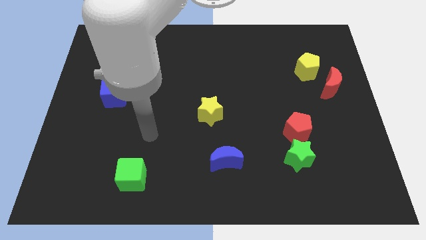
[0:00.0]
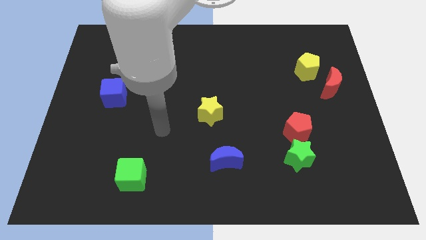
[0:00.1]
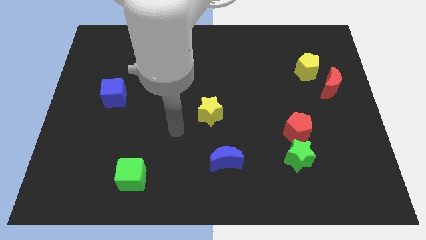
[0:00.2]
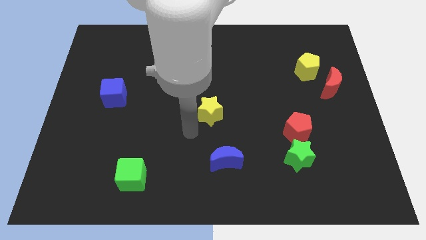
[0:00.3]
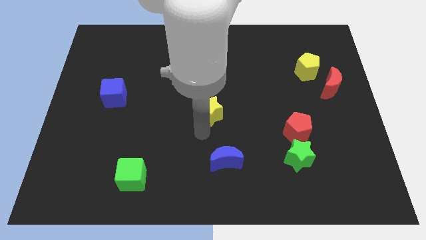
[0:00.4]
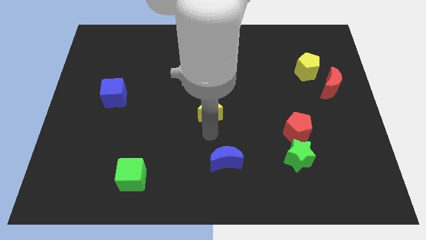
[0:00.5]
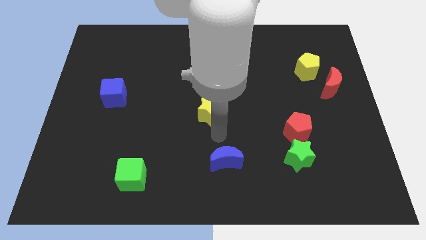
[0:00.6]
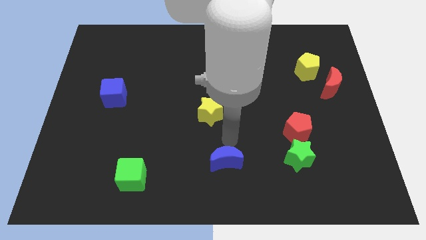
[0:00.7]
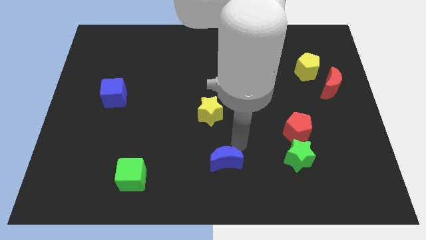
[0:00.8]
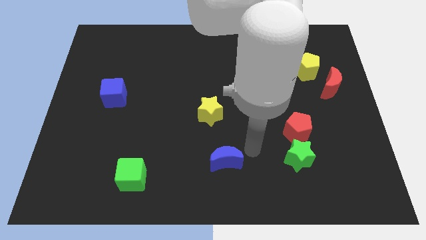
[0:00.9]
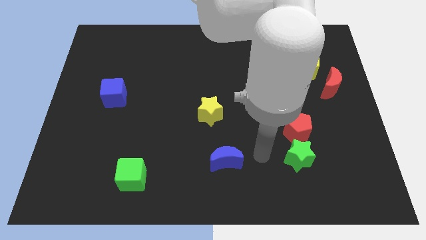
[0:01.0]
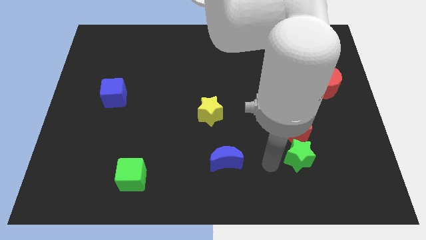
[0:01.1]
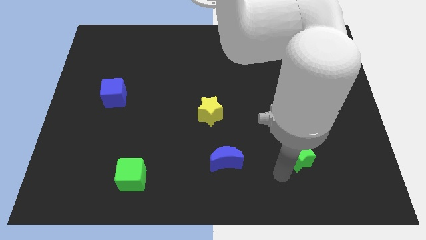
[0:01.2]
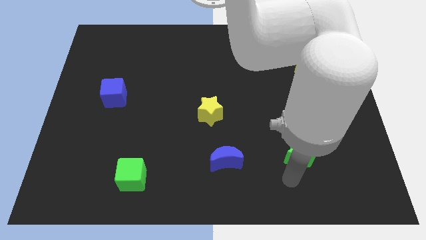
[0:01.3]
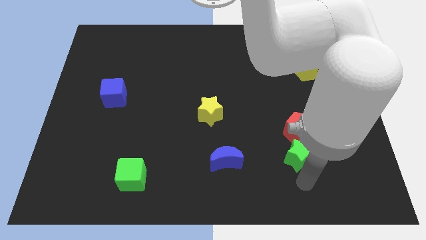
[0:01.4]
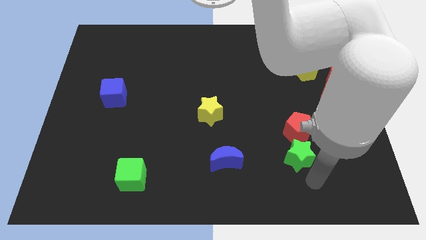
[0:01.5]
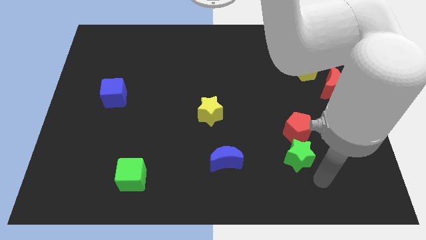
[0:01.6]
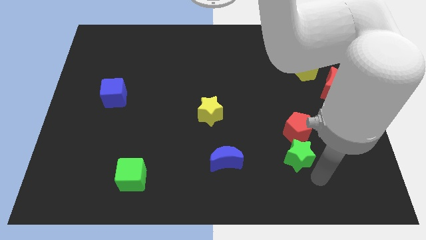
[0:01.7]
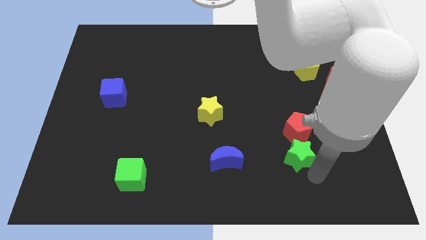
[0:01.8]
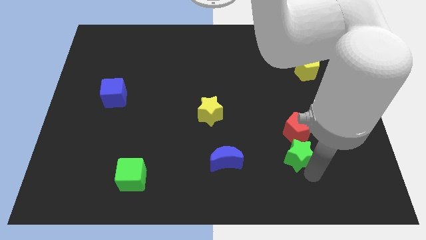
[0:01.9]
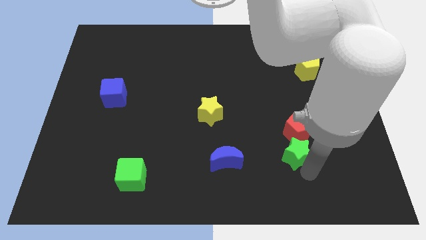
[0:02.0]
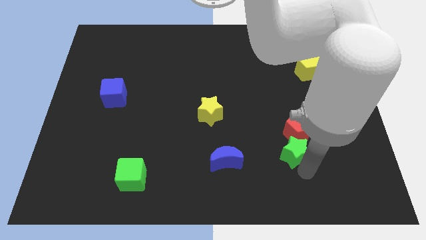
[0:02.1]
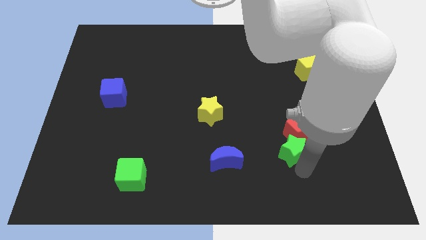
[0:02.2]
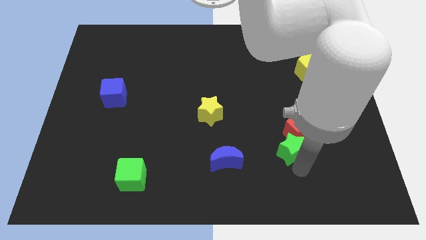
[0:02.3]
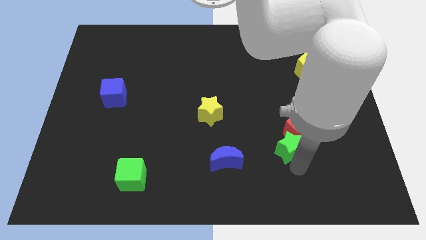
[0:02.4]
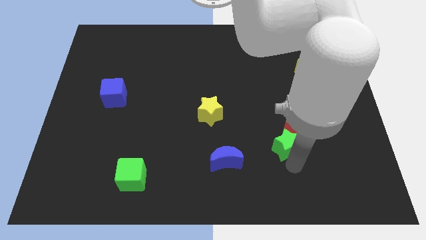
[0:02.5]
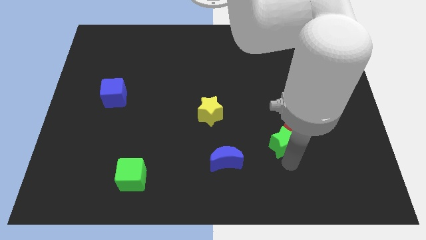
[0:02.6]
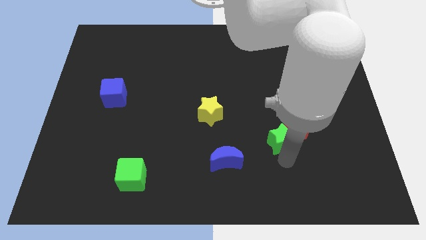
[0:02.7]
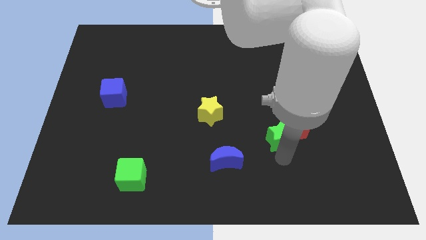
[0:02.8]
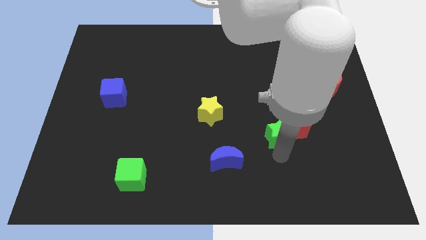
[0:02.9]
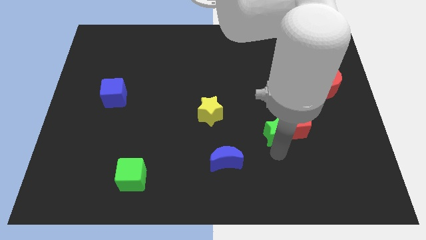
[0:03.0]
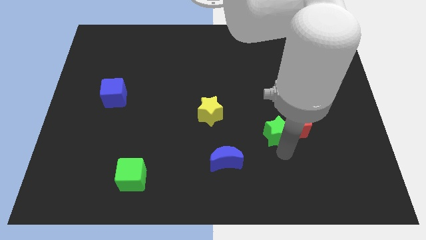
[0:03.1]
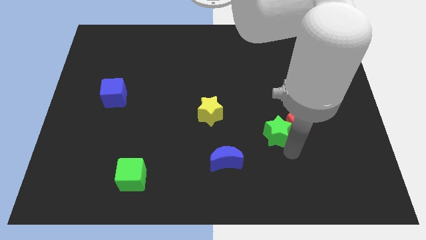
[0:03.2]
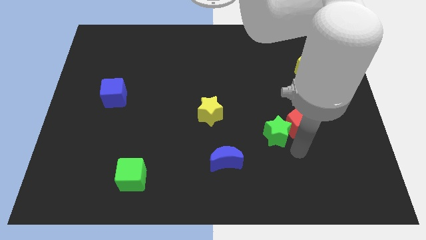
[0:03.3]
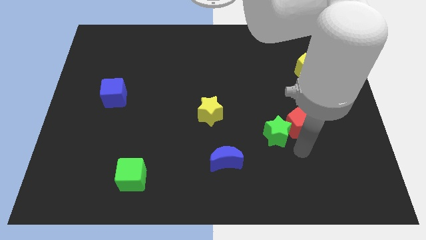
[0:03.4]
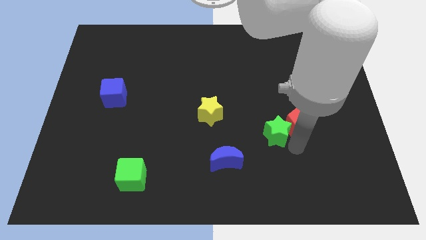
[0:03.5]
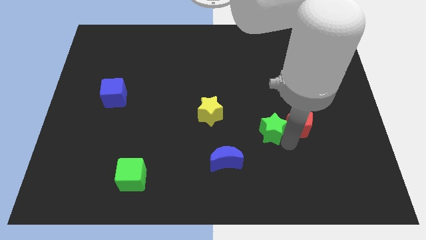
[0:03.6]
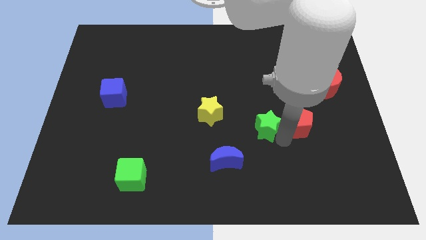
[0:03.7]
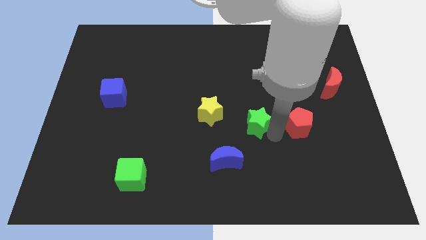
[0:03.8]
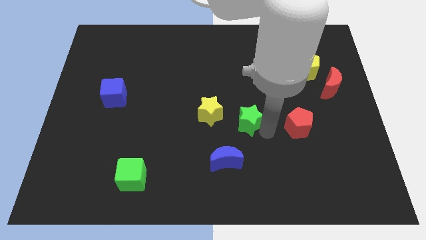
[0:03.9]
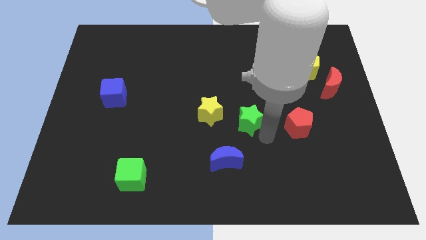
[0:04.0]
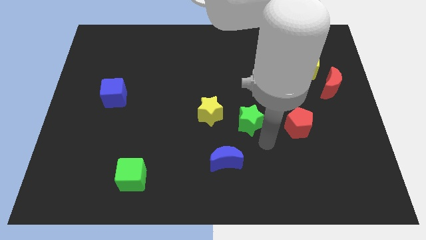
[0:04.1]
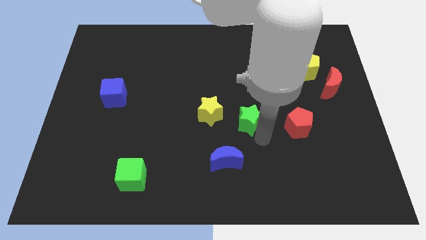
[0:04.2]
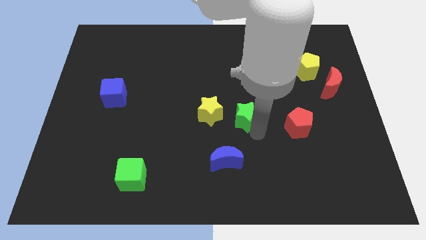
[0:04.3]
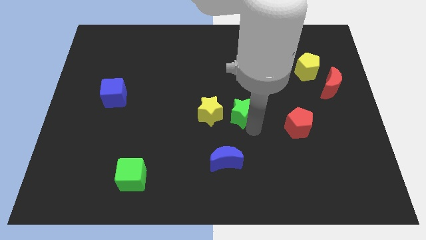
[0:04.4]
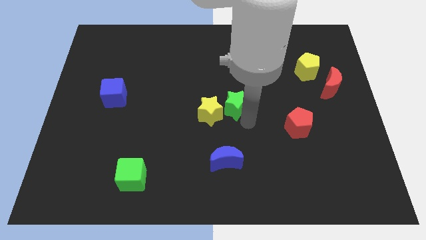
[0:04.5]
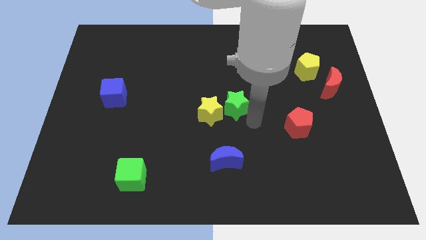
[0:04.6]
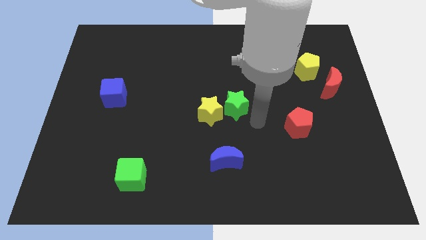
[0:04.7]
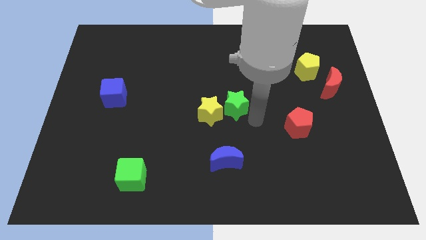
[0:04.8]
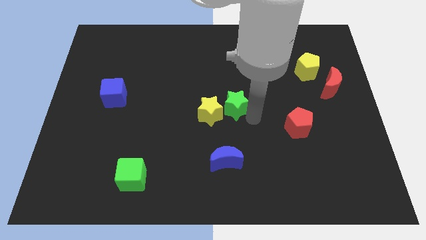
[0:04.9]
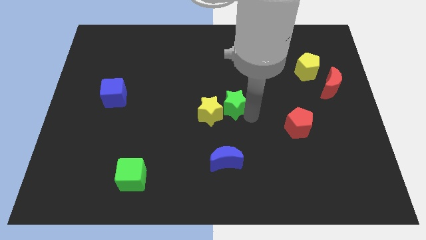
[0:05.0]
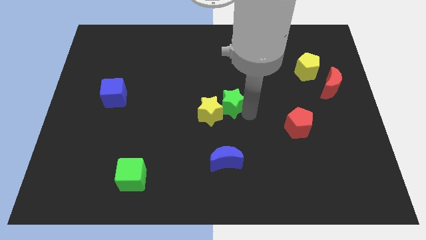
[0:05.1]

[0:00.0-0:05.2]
slide the green star up and left

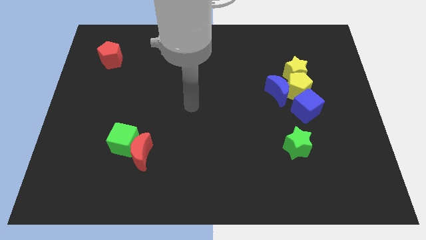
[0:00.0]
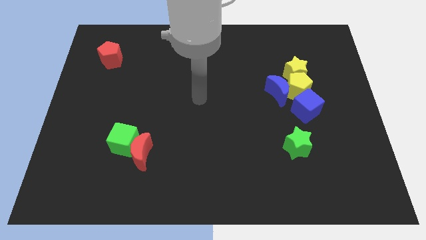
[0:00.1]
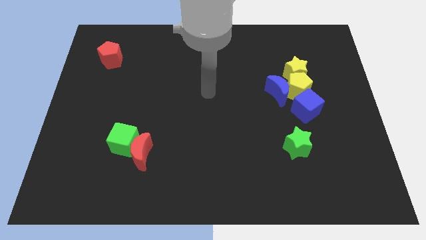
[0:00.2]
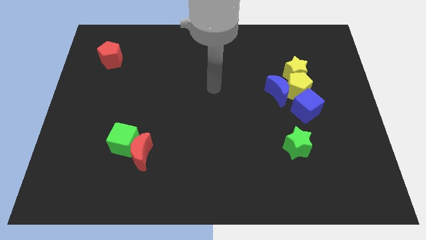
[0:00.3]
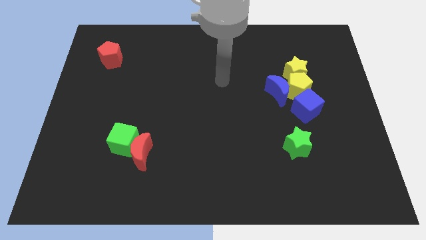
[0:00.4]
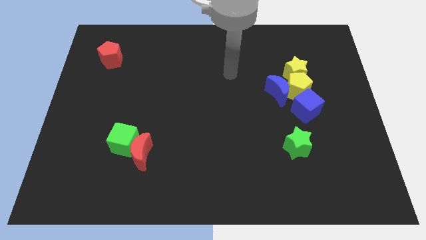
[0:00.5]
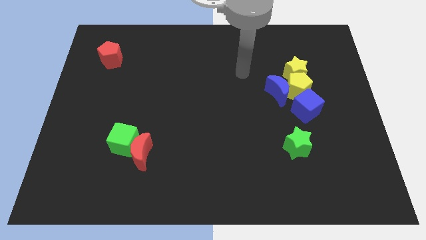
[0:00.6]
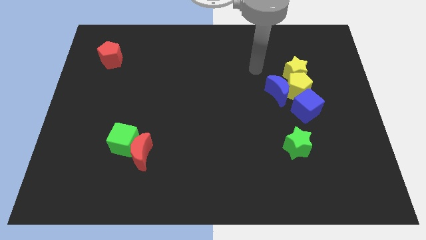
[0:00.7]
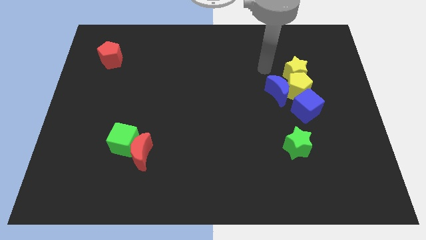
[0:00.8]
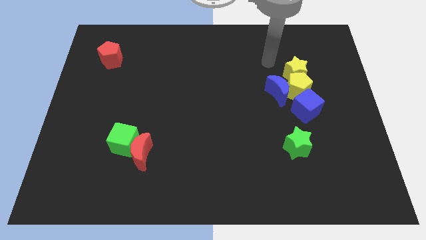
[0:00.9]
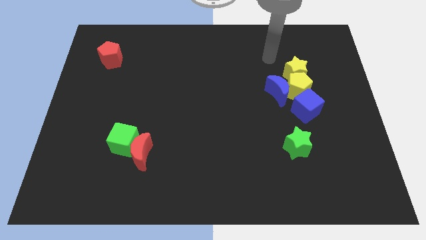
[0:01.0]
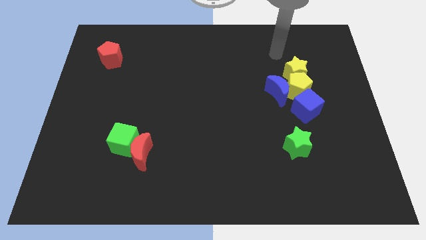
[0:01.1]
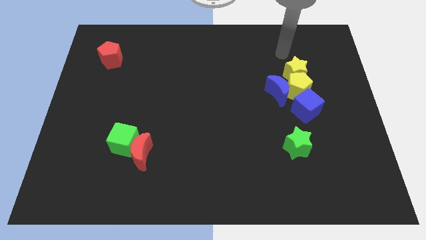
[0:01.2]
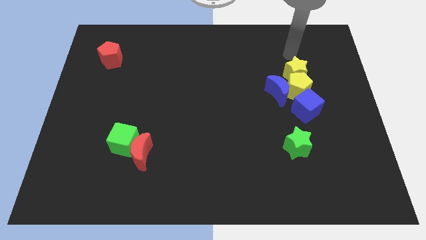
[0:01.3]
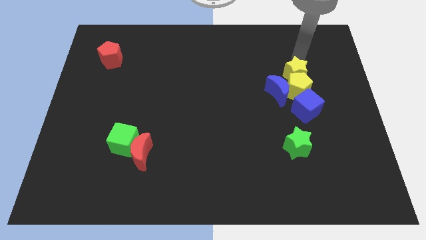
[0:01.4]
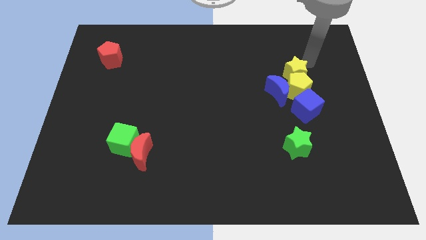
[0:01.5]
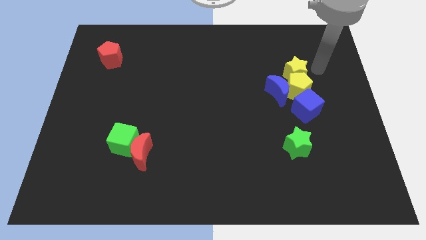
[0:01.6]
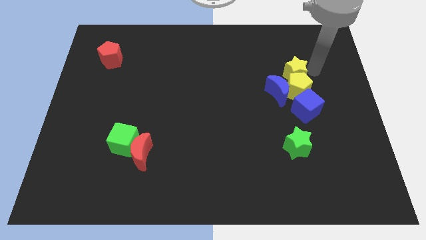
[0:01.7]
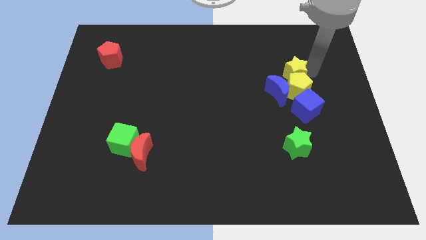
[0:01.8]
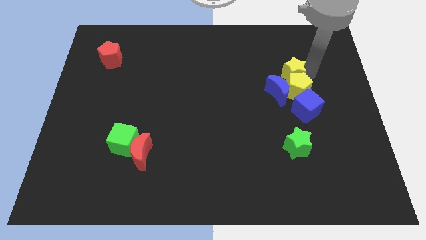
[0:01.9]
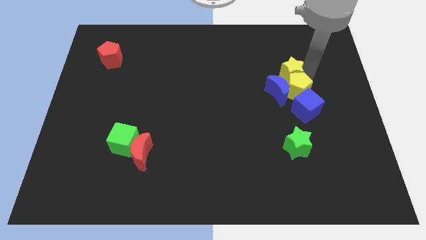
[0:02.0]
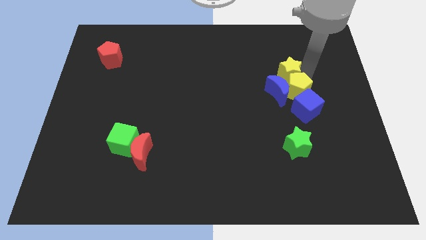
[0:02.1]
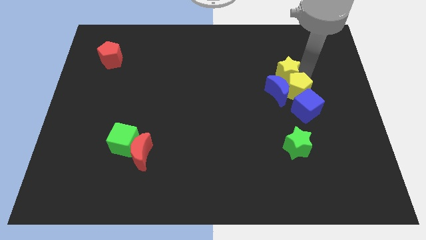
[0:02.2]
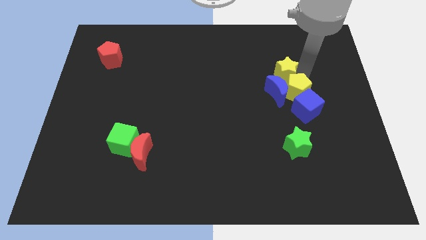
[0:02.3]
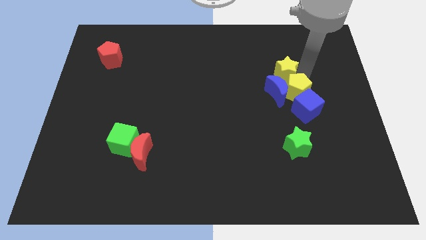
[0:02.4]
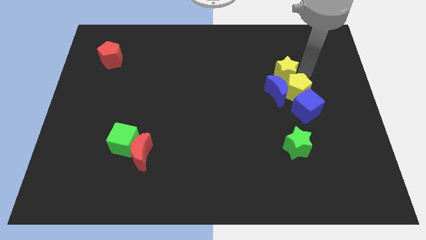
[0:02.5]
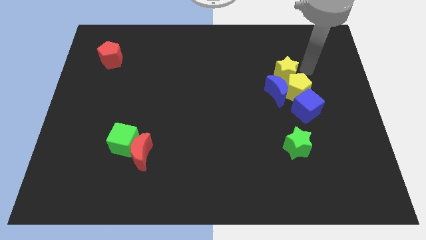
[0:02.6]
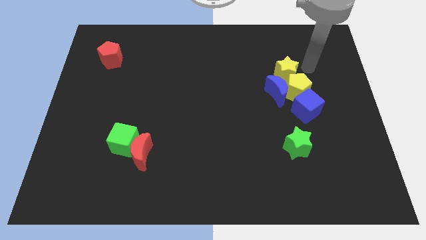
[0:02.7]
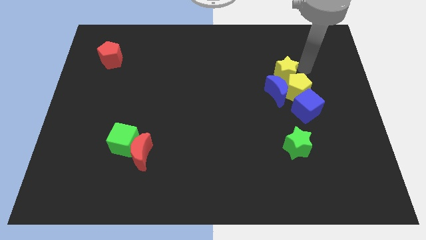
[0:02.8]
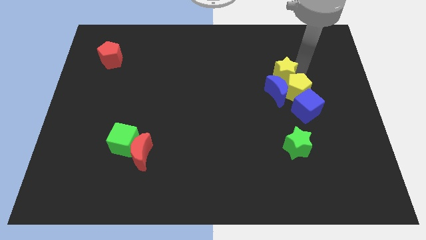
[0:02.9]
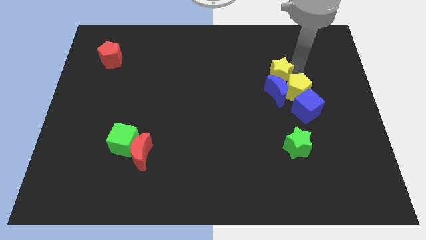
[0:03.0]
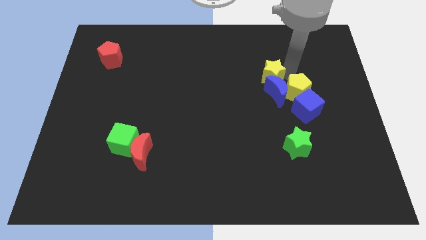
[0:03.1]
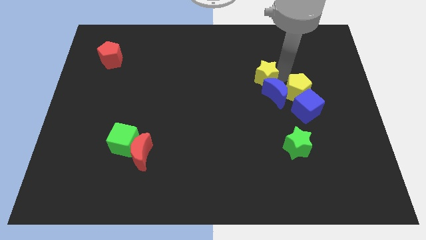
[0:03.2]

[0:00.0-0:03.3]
move the yellow star to the left somewhat
